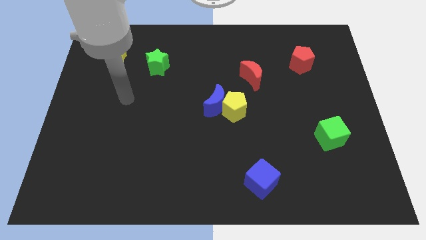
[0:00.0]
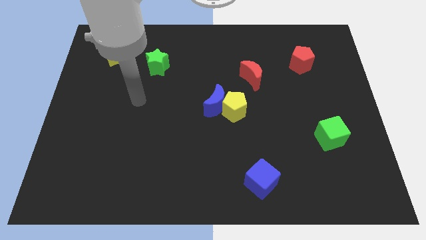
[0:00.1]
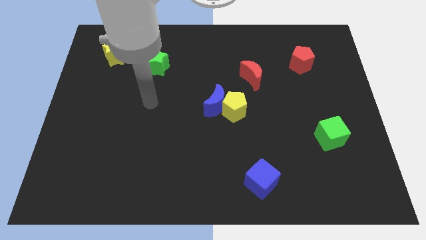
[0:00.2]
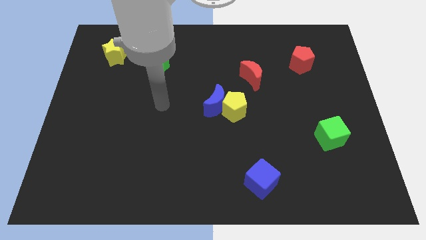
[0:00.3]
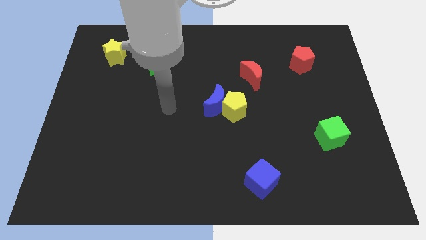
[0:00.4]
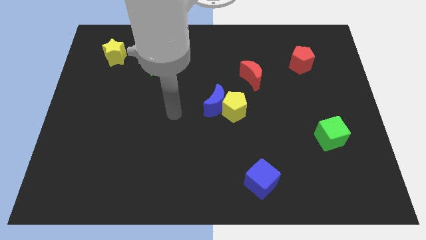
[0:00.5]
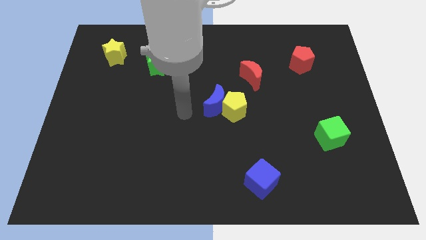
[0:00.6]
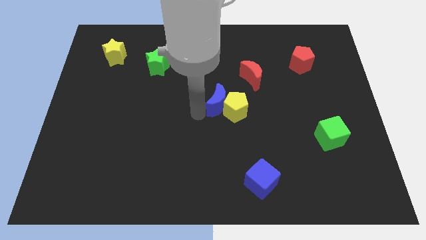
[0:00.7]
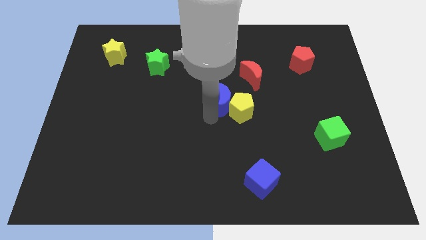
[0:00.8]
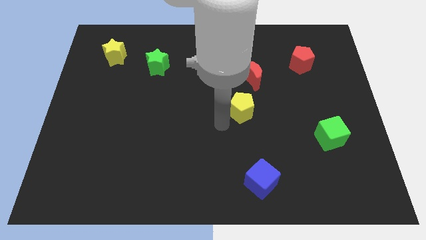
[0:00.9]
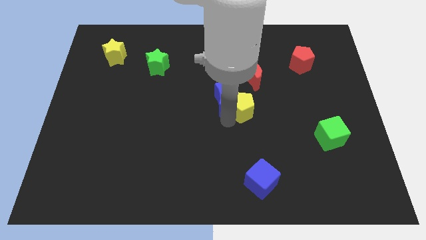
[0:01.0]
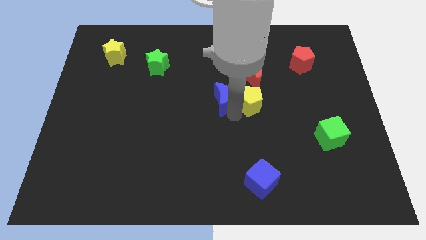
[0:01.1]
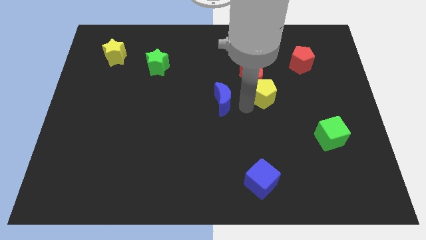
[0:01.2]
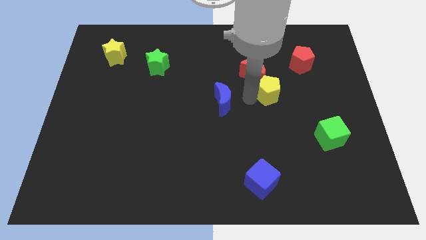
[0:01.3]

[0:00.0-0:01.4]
pull the blue moon apart from the yellow pentagon

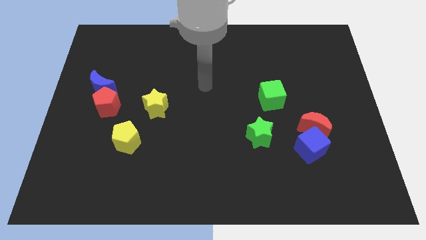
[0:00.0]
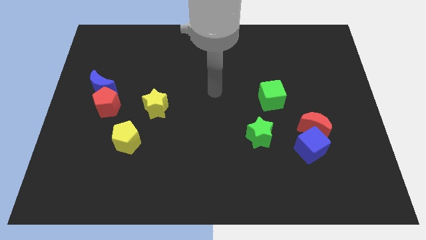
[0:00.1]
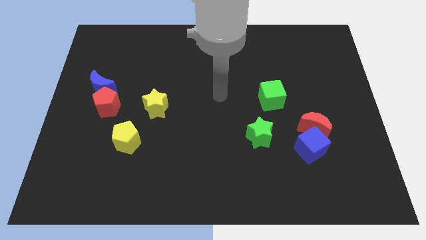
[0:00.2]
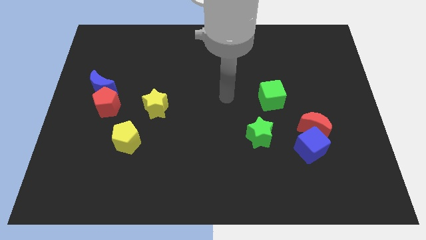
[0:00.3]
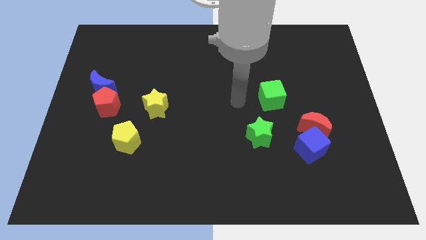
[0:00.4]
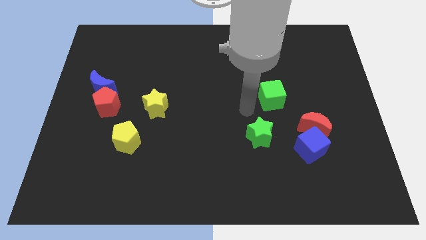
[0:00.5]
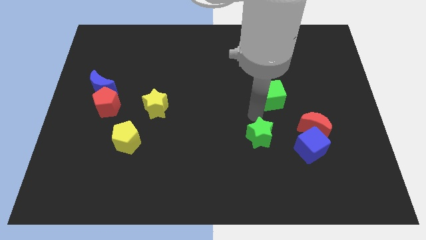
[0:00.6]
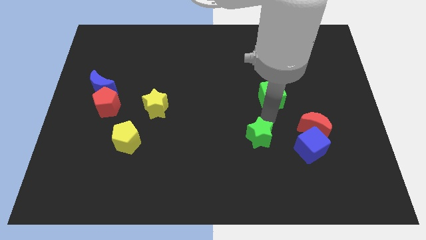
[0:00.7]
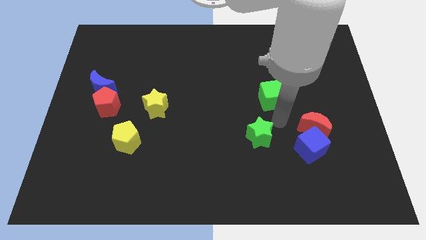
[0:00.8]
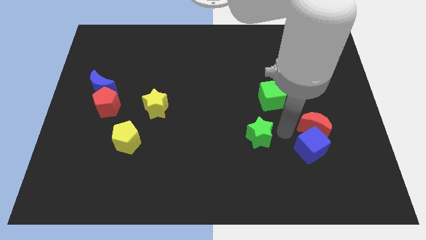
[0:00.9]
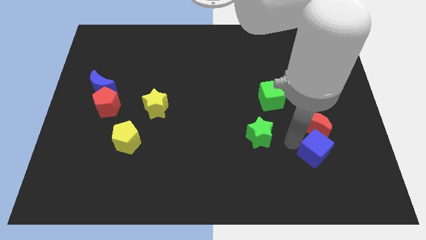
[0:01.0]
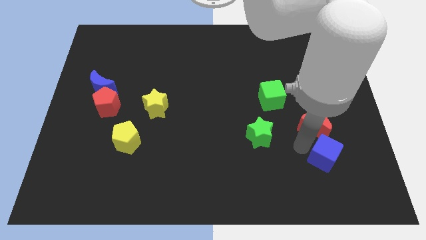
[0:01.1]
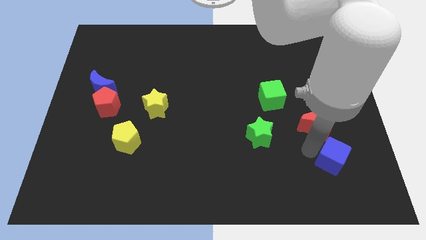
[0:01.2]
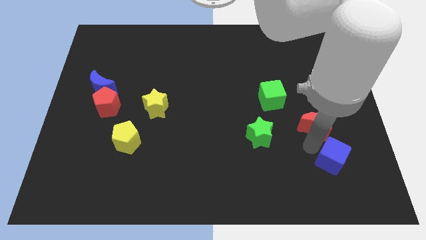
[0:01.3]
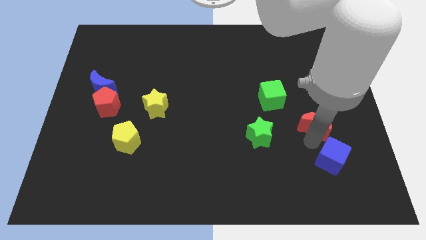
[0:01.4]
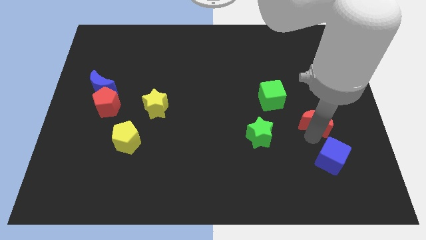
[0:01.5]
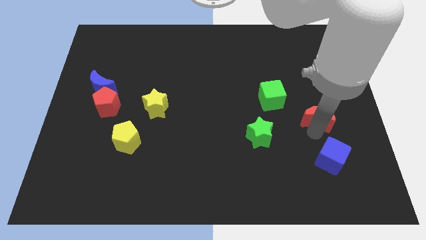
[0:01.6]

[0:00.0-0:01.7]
pull the red moon apart from the blue cube

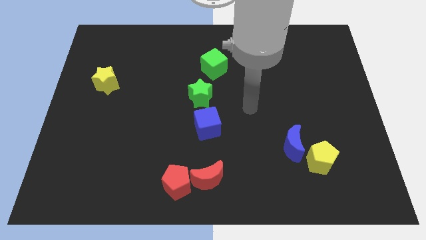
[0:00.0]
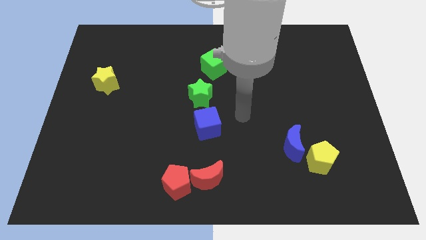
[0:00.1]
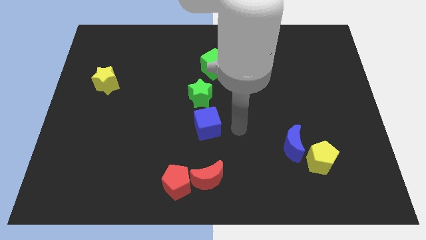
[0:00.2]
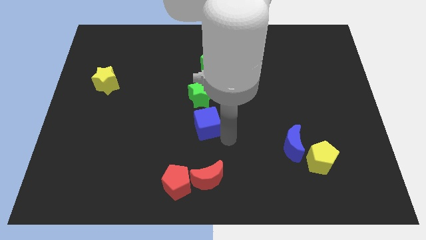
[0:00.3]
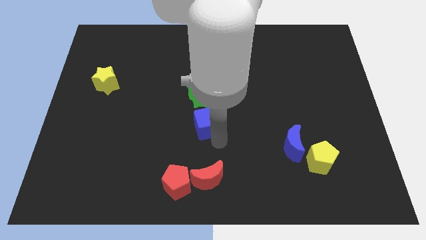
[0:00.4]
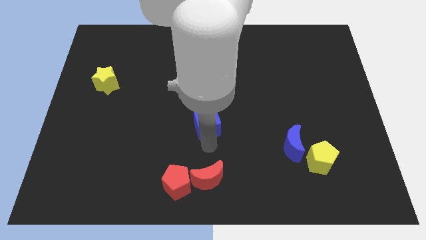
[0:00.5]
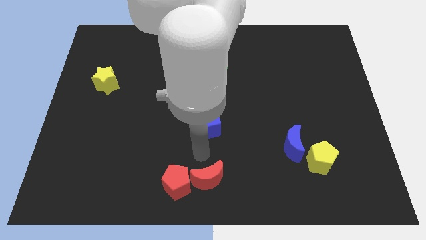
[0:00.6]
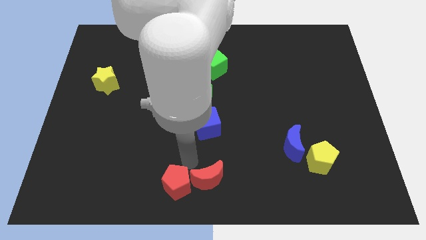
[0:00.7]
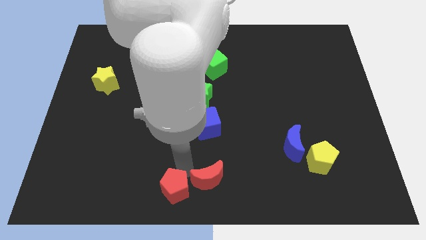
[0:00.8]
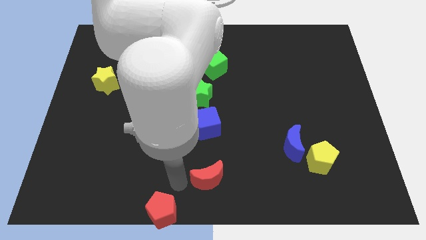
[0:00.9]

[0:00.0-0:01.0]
move the red moon away from the red pentagon

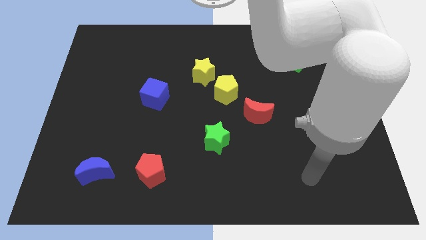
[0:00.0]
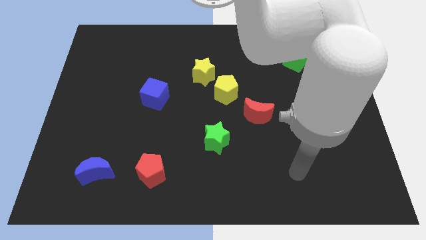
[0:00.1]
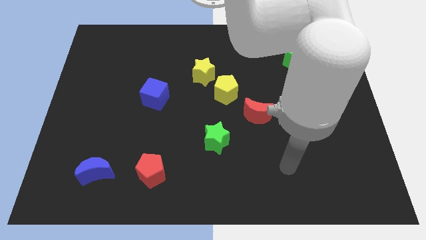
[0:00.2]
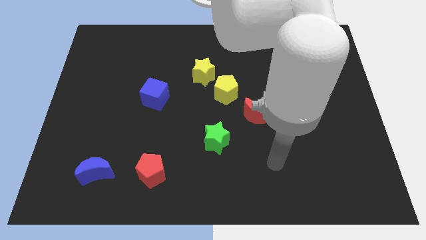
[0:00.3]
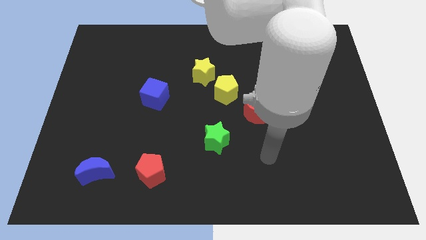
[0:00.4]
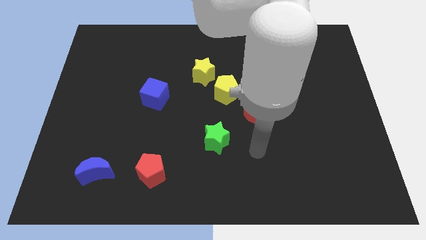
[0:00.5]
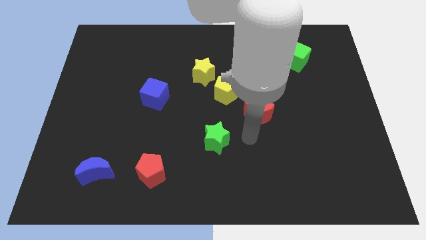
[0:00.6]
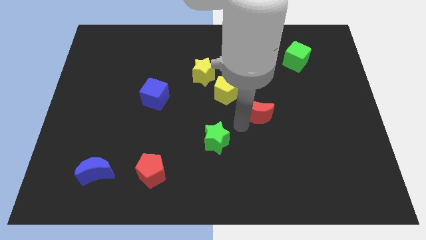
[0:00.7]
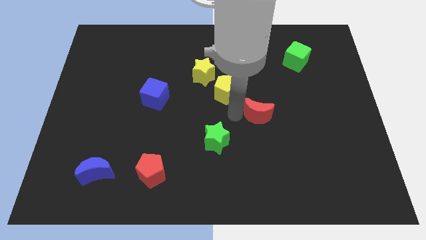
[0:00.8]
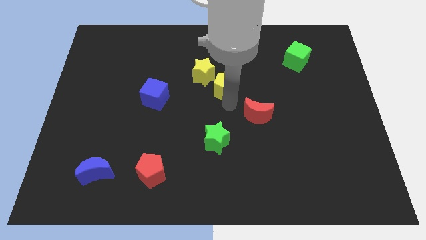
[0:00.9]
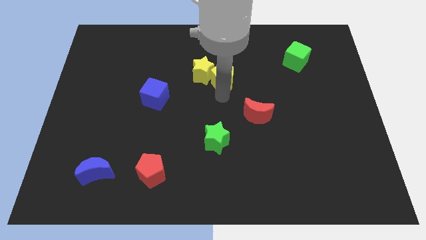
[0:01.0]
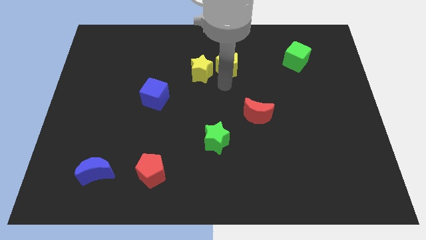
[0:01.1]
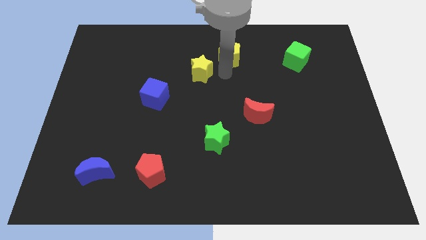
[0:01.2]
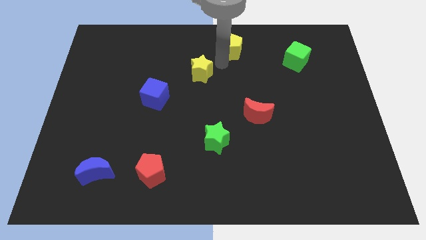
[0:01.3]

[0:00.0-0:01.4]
separate the yellow star from the yellow pentagon

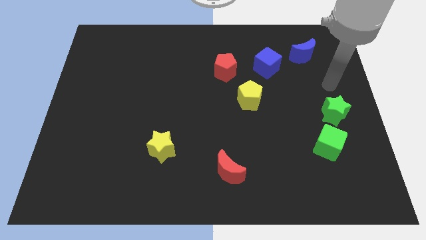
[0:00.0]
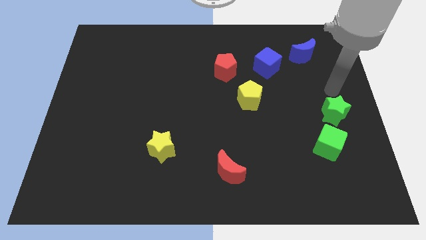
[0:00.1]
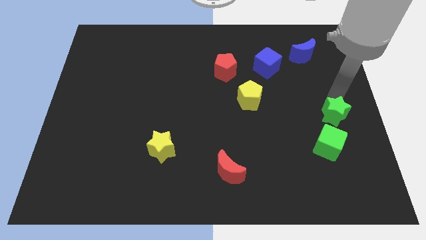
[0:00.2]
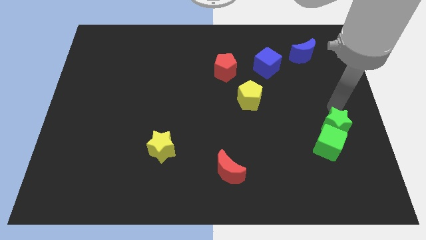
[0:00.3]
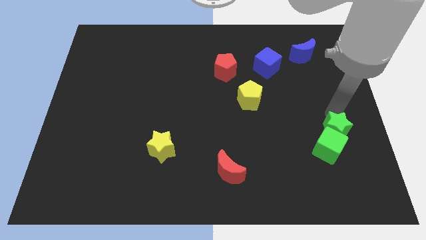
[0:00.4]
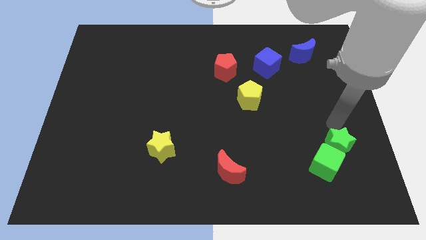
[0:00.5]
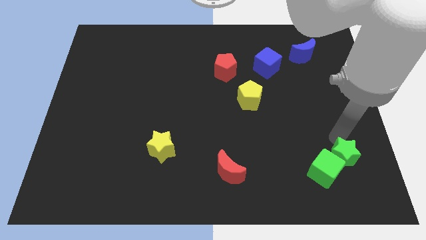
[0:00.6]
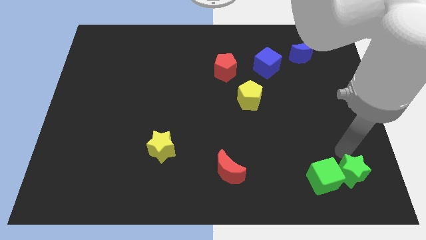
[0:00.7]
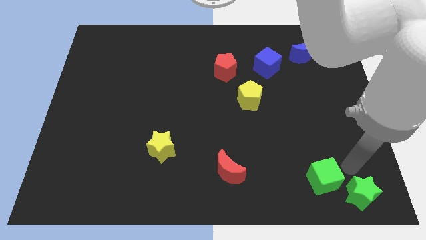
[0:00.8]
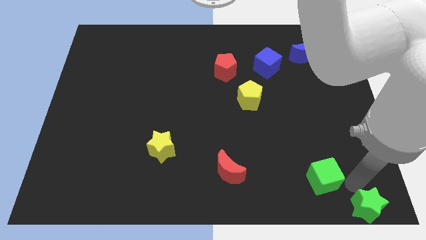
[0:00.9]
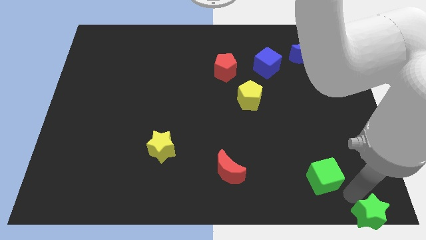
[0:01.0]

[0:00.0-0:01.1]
pull the green cube apart from the green star

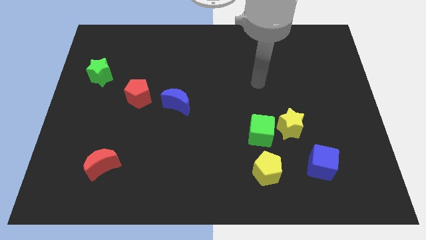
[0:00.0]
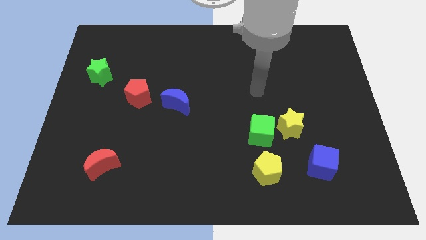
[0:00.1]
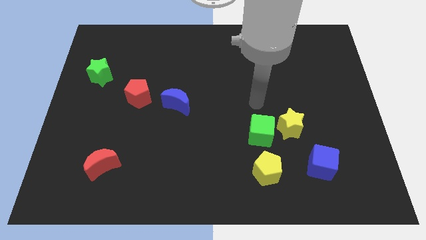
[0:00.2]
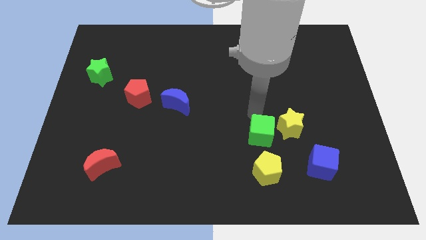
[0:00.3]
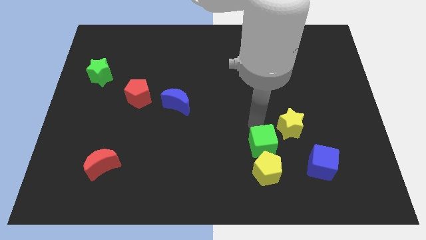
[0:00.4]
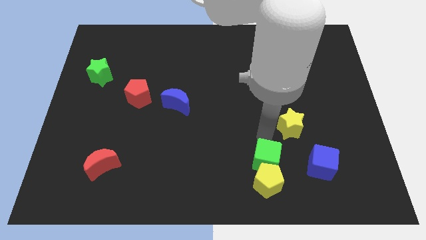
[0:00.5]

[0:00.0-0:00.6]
separate the yellow star from the green cube

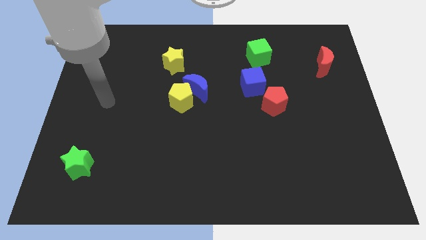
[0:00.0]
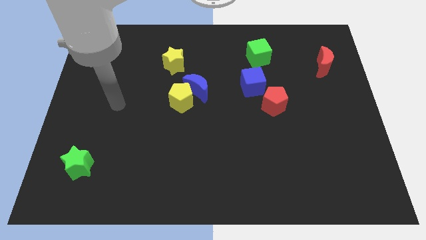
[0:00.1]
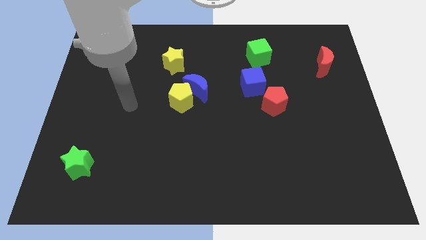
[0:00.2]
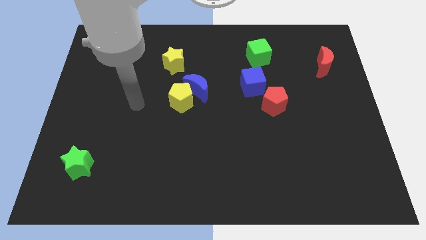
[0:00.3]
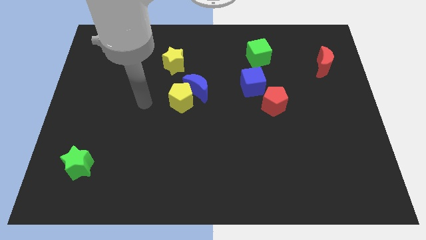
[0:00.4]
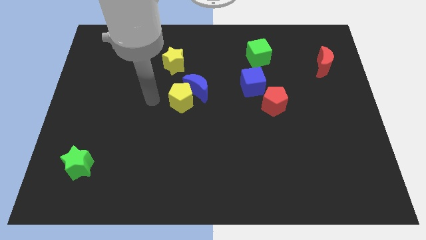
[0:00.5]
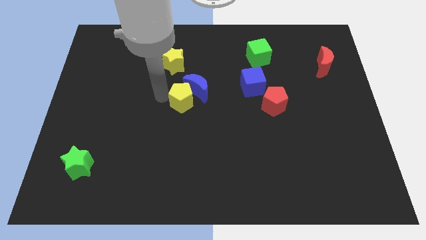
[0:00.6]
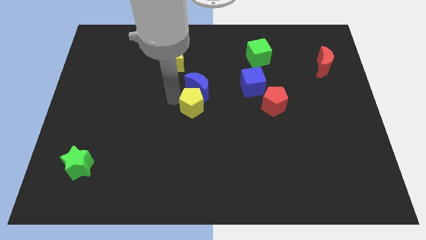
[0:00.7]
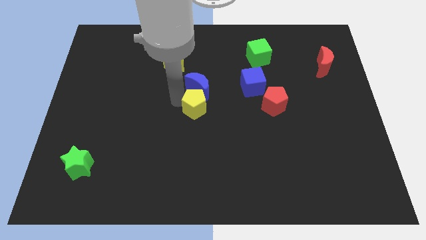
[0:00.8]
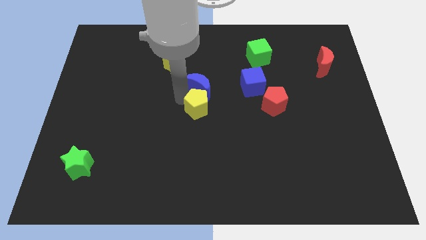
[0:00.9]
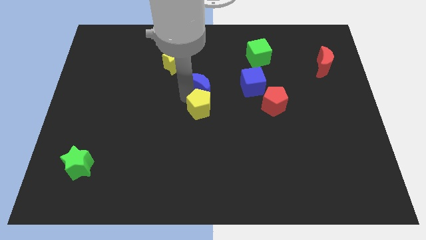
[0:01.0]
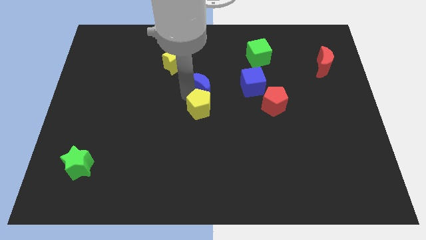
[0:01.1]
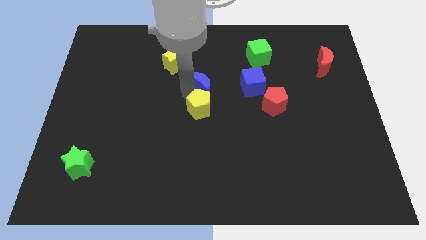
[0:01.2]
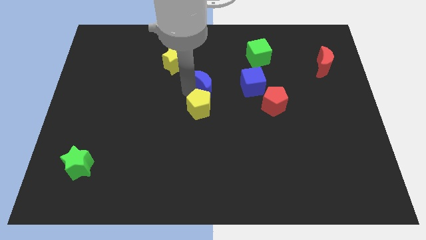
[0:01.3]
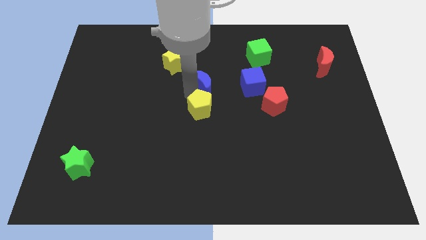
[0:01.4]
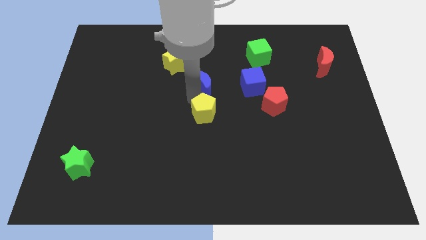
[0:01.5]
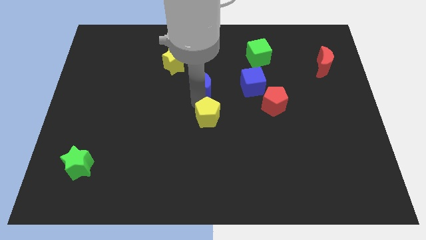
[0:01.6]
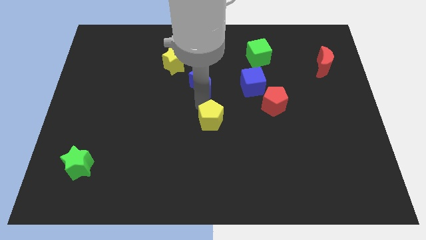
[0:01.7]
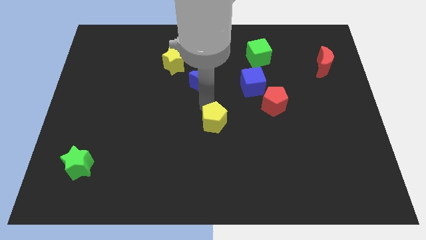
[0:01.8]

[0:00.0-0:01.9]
separate the blue moon from the yellow pentagon

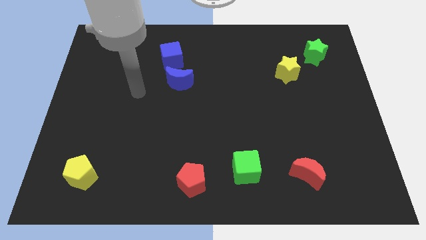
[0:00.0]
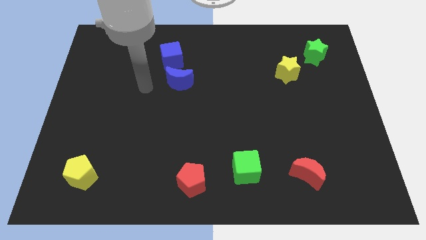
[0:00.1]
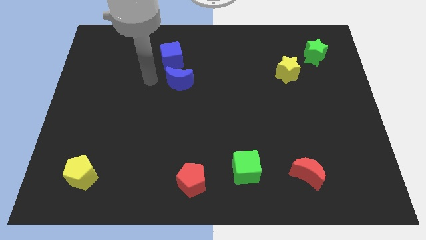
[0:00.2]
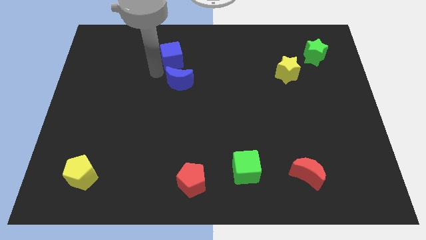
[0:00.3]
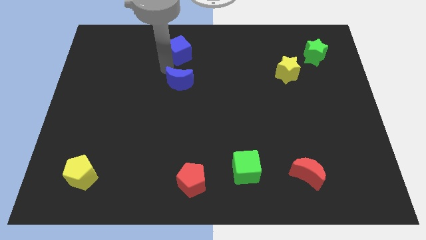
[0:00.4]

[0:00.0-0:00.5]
move the blue moon away from the blue cube
